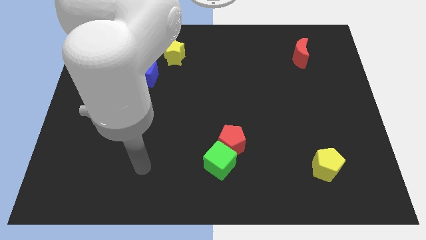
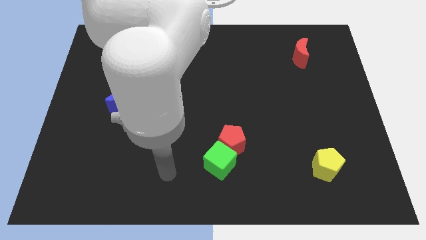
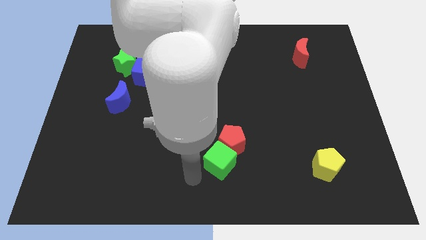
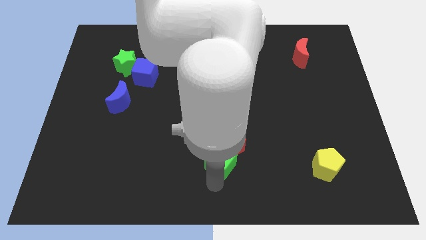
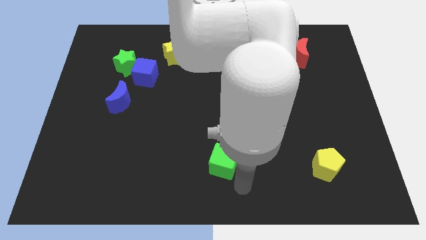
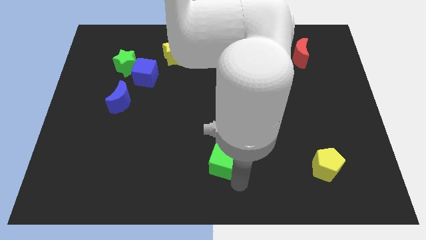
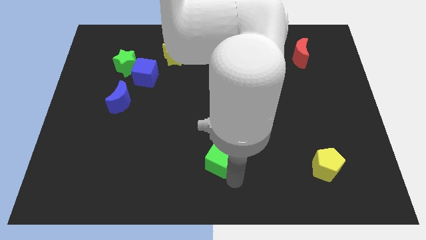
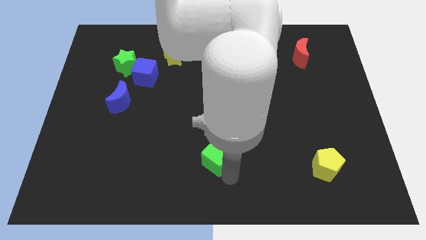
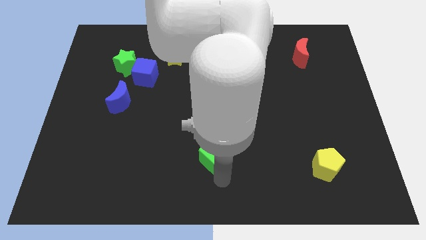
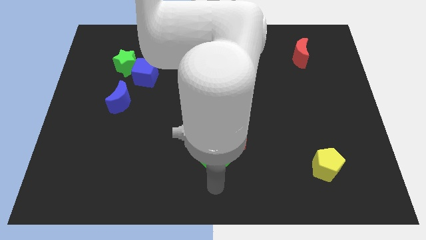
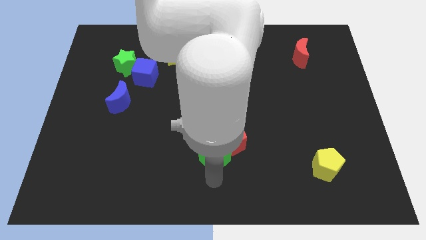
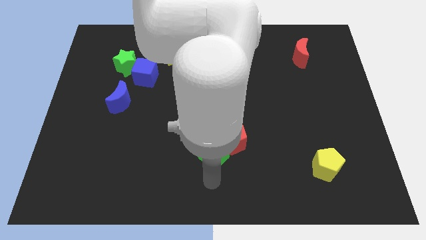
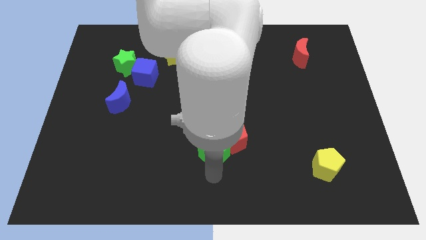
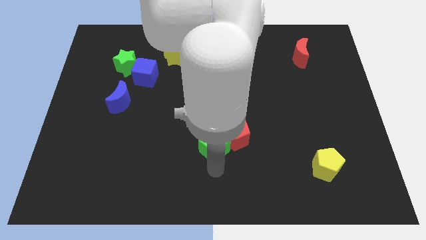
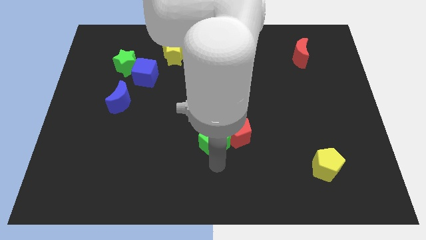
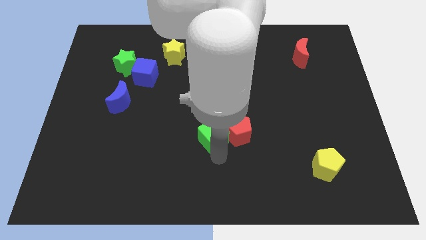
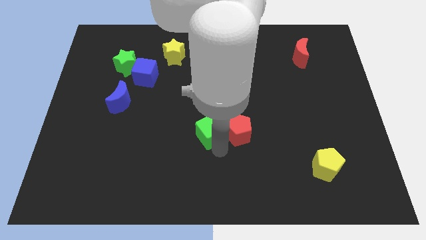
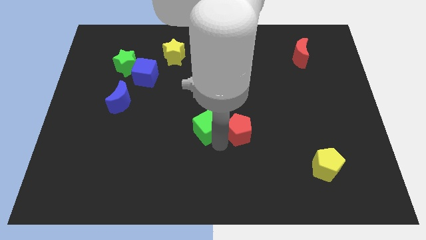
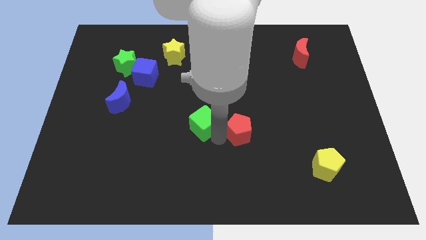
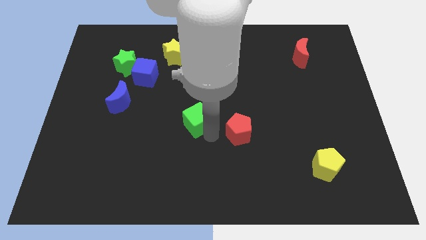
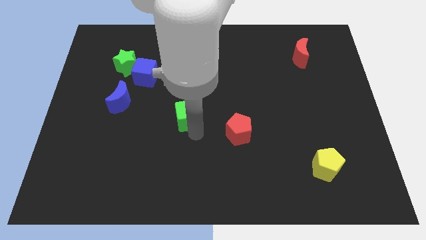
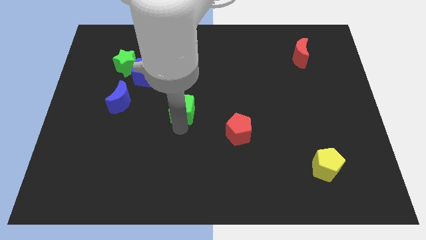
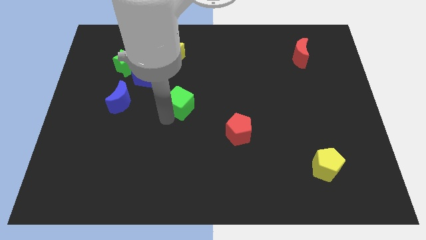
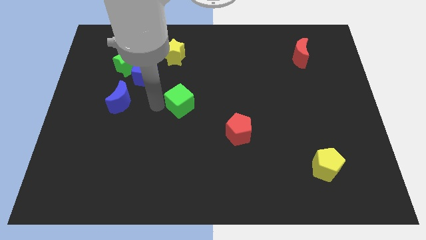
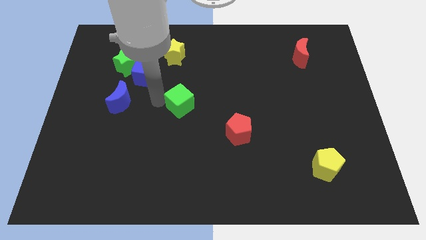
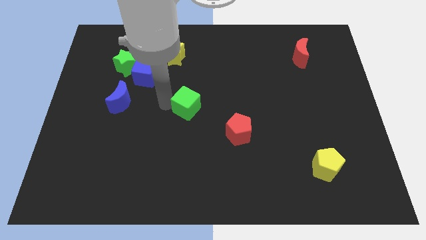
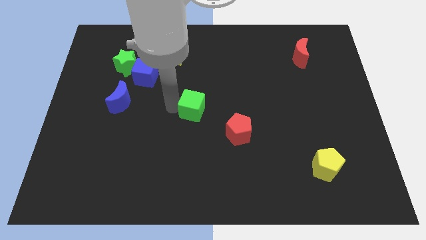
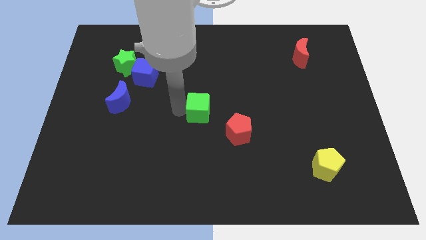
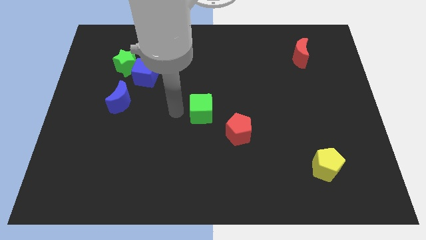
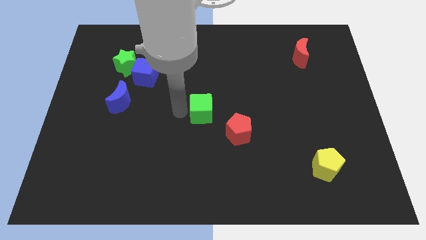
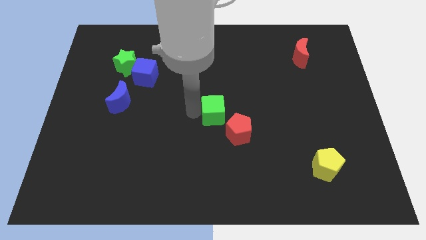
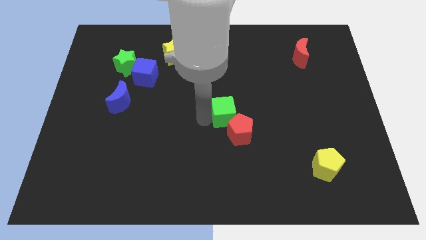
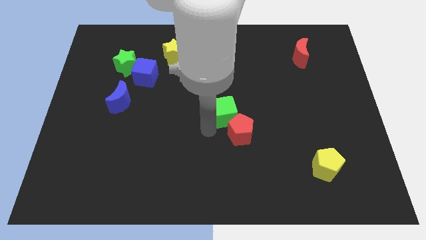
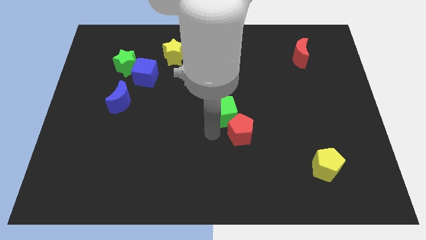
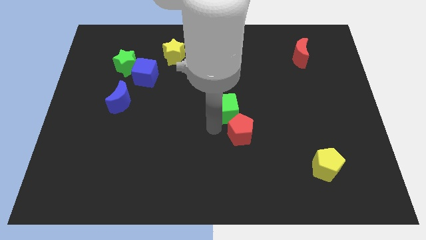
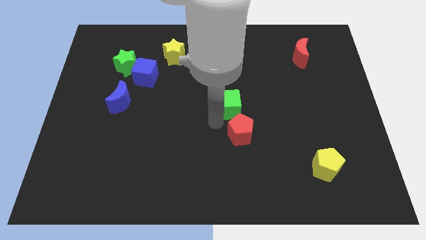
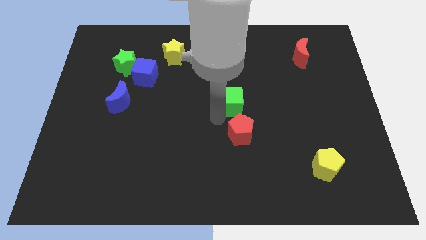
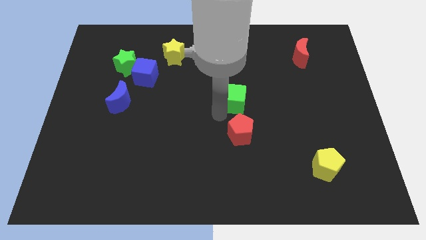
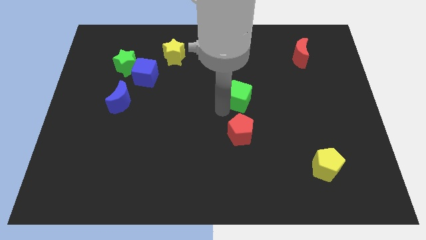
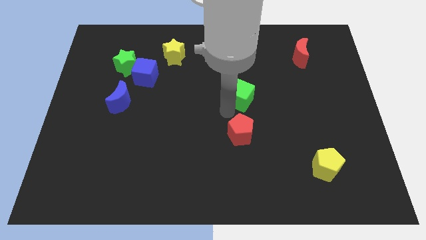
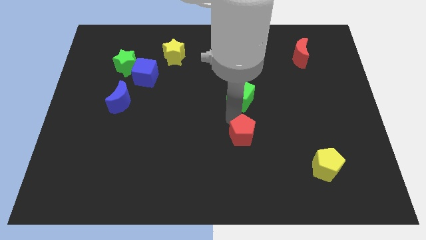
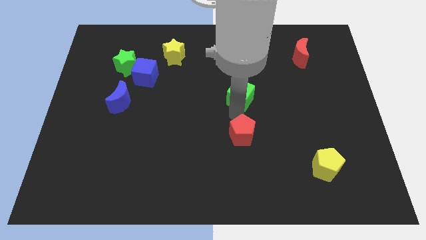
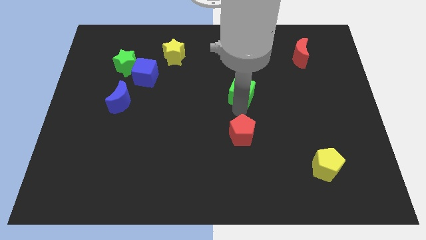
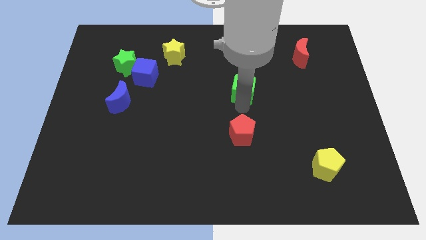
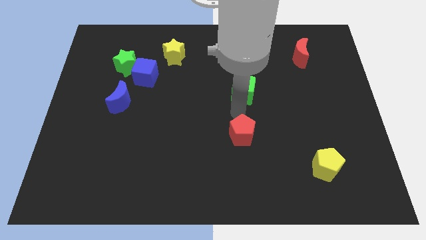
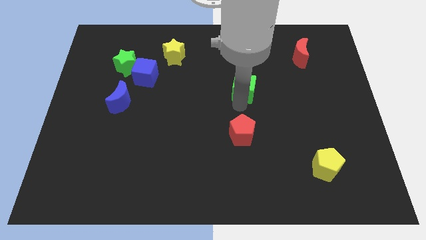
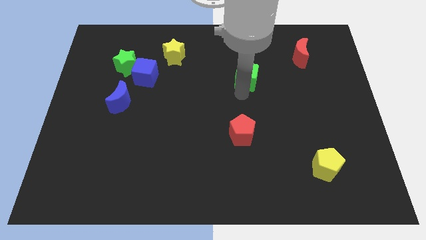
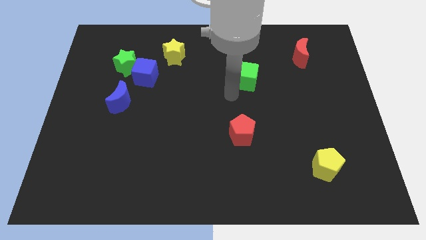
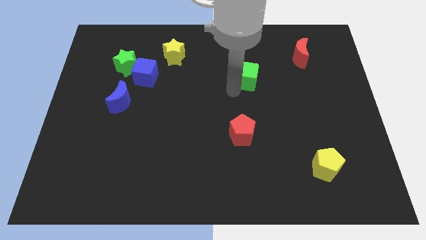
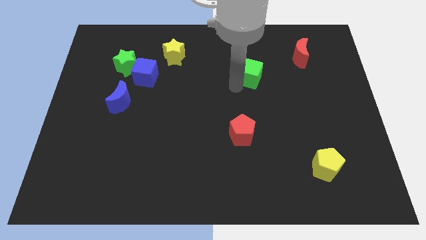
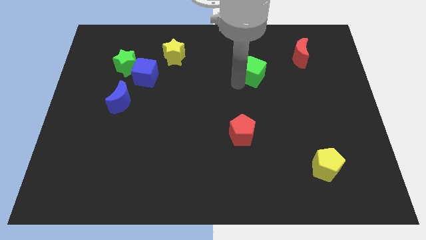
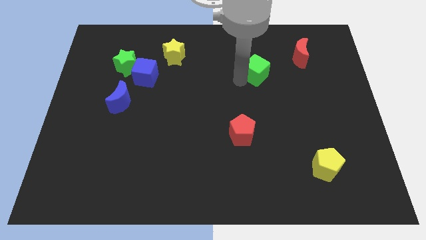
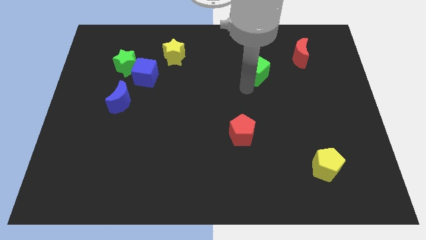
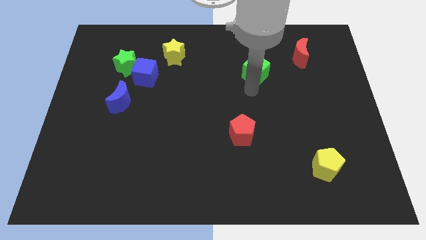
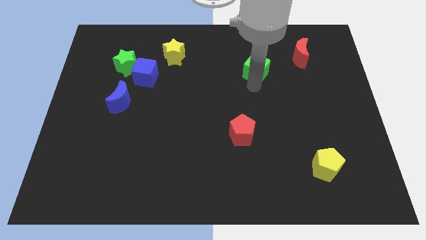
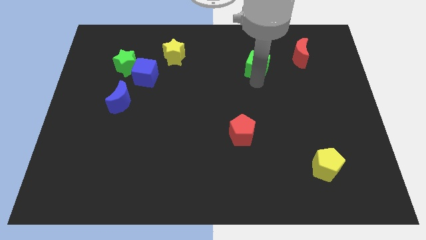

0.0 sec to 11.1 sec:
put the green cube just left of the red moon

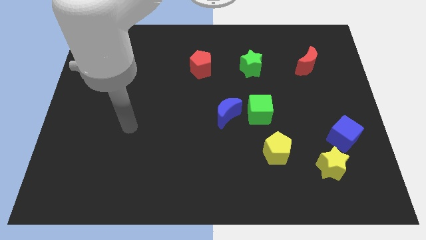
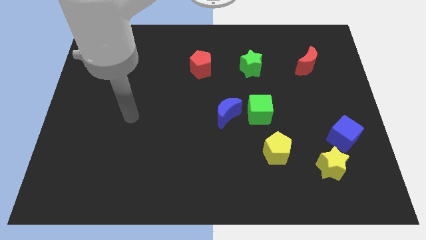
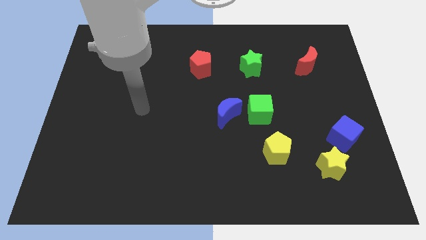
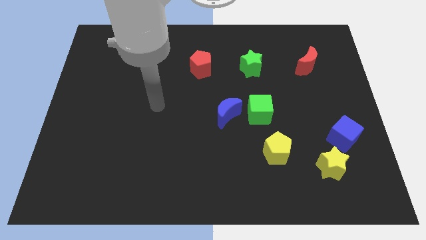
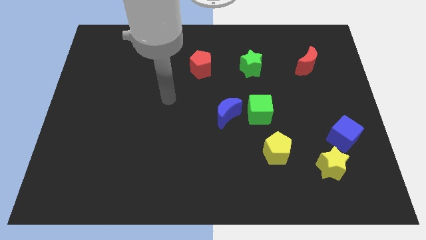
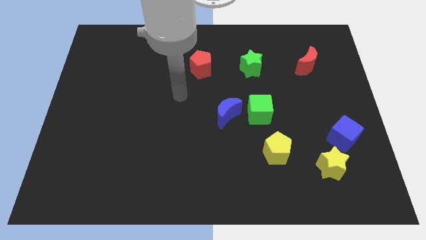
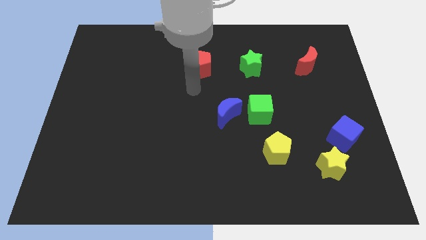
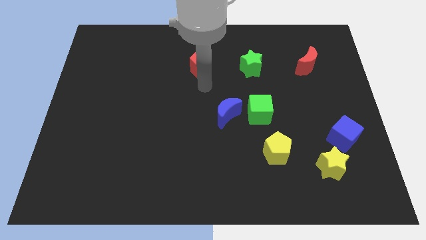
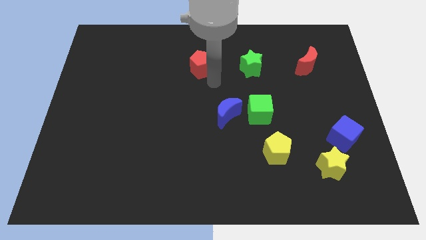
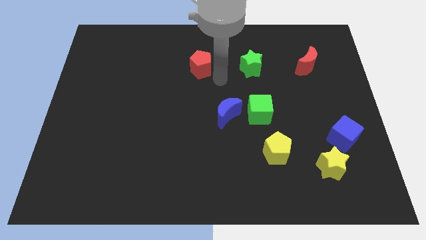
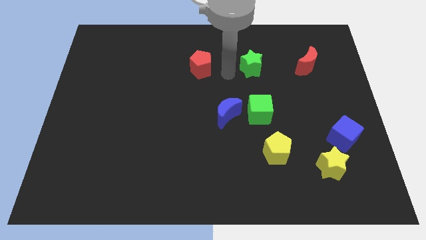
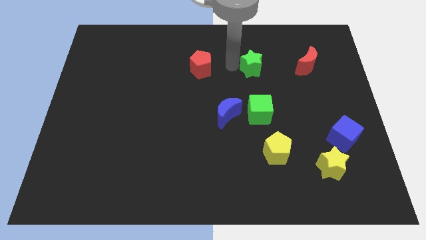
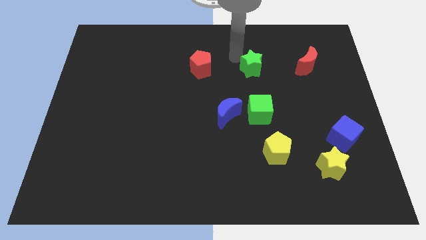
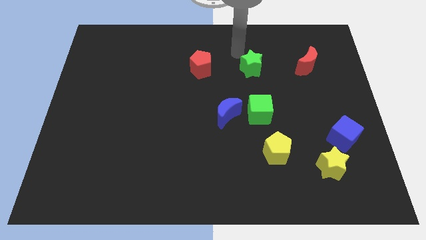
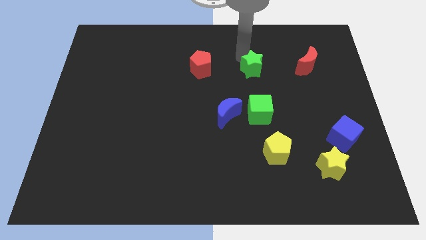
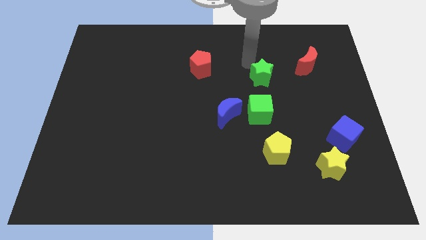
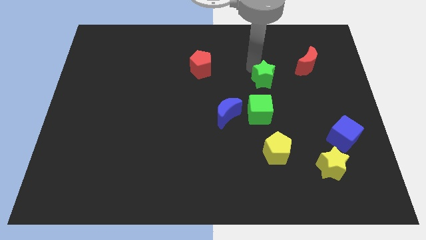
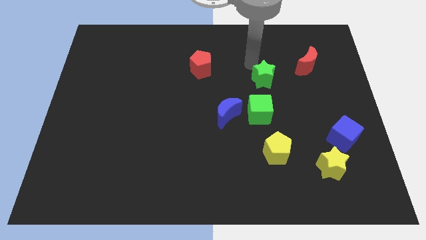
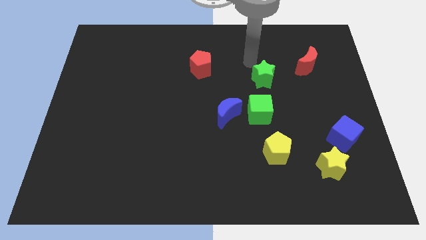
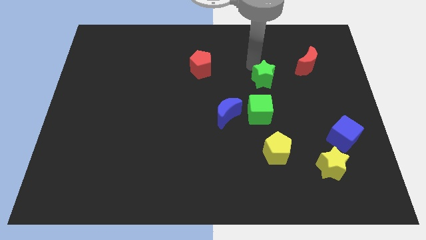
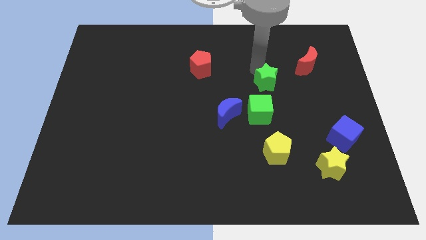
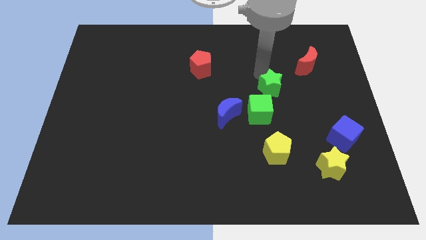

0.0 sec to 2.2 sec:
push the green star to the top right side of the green cube
